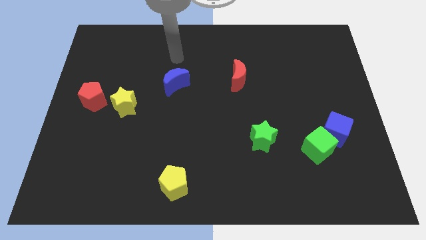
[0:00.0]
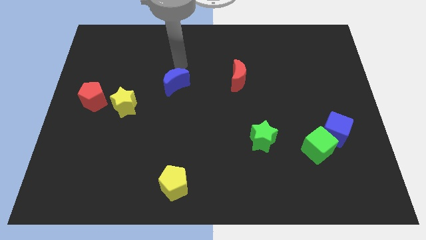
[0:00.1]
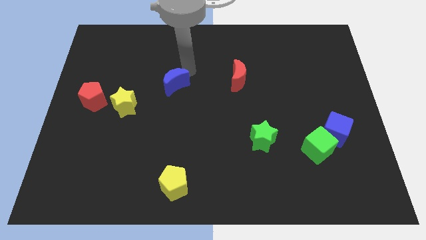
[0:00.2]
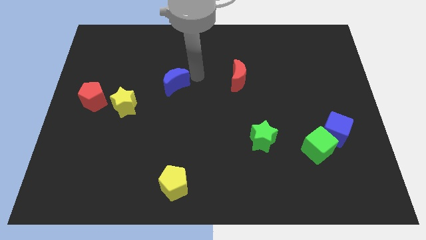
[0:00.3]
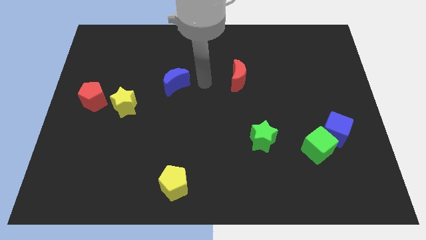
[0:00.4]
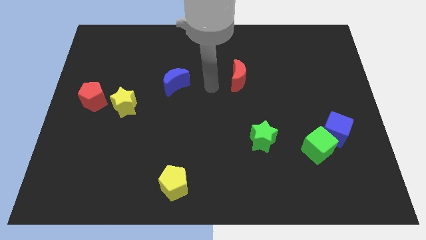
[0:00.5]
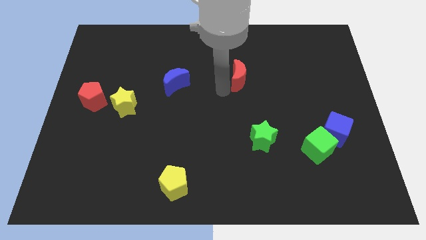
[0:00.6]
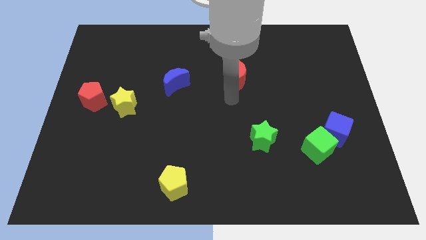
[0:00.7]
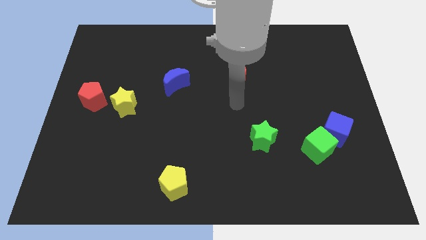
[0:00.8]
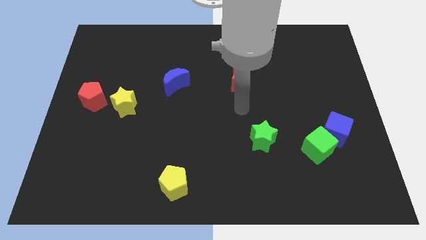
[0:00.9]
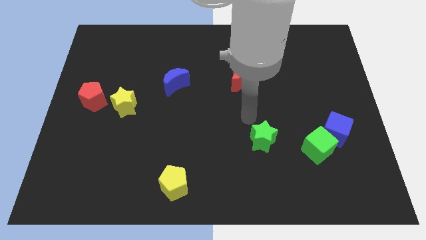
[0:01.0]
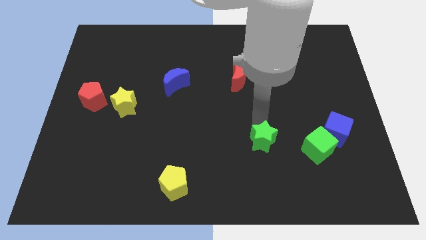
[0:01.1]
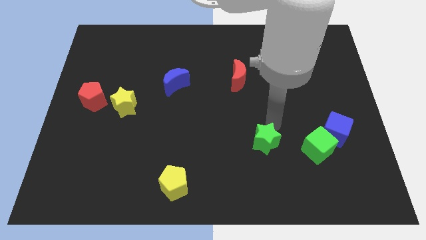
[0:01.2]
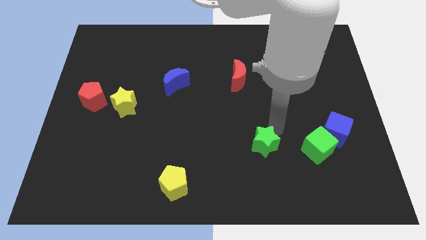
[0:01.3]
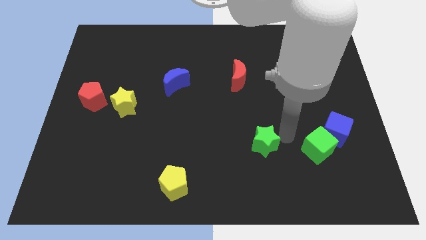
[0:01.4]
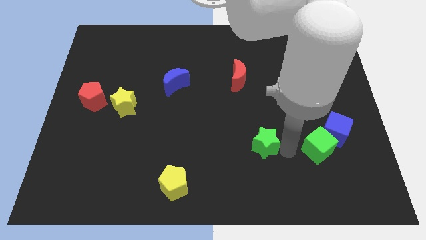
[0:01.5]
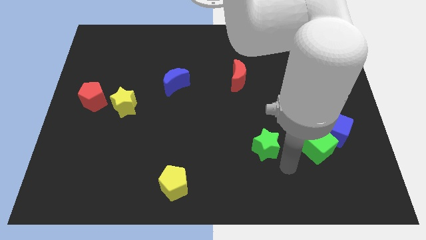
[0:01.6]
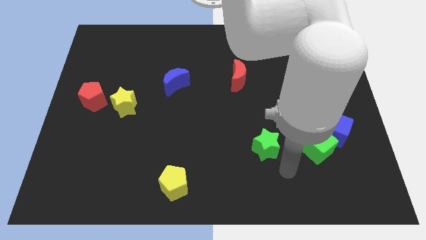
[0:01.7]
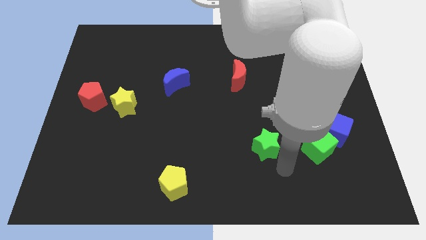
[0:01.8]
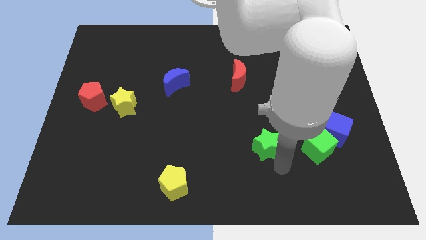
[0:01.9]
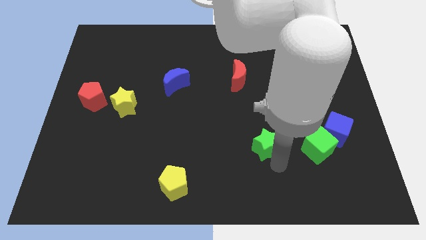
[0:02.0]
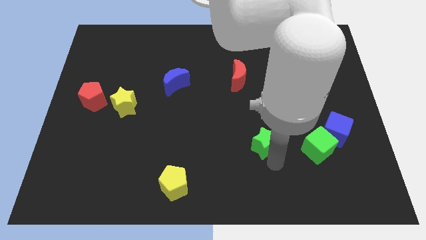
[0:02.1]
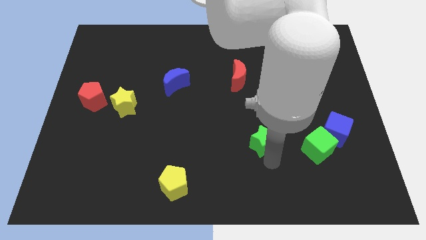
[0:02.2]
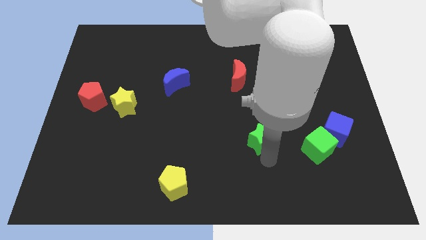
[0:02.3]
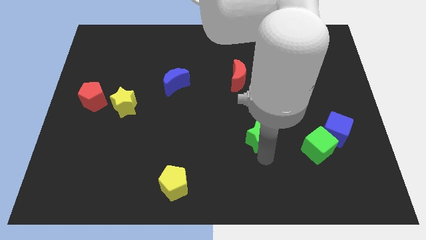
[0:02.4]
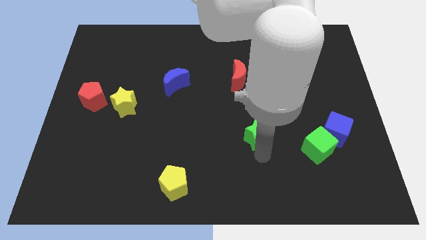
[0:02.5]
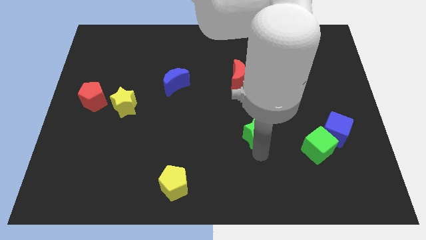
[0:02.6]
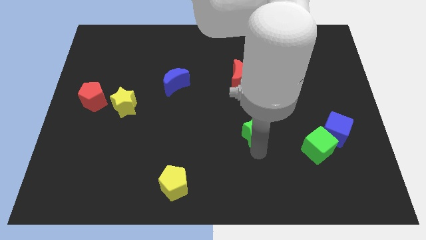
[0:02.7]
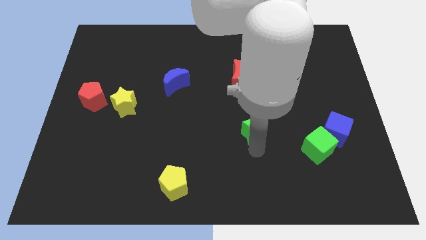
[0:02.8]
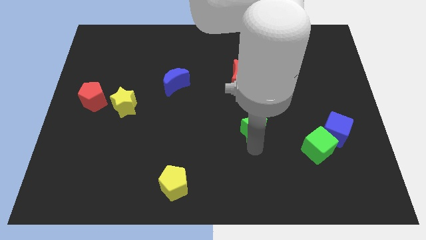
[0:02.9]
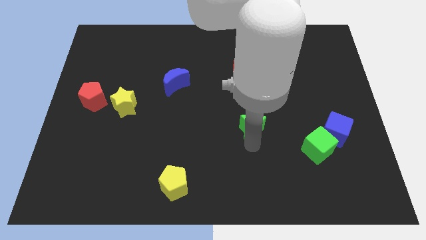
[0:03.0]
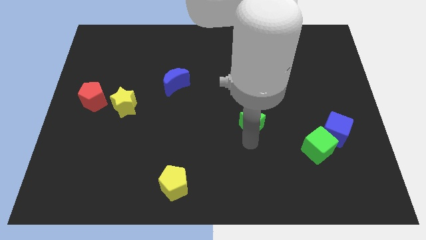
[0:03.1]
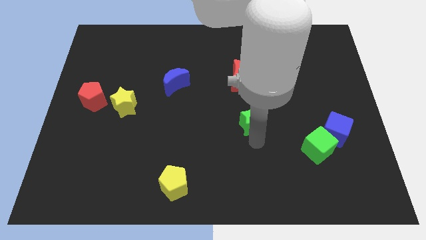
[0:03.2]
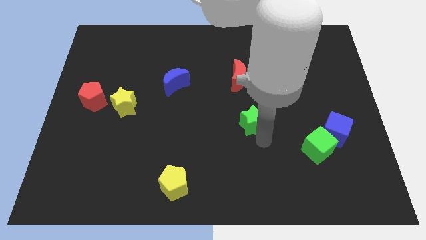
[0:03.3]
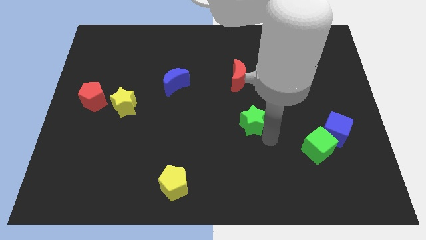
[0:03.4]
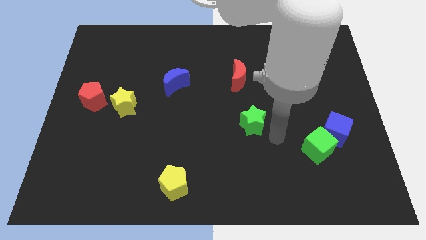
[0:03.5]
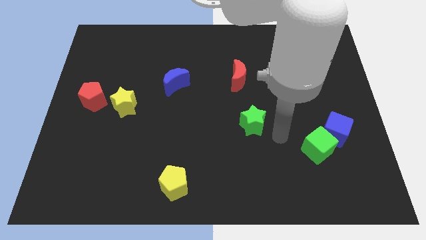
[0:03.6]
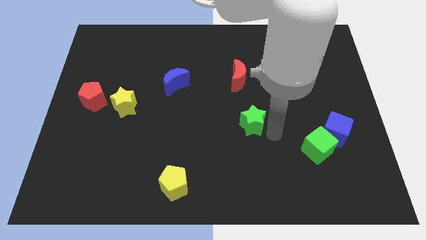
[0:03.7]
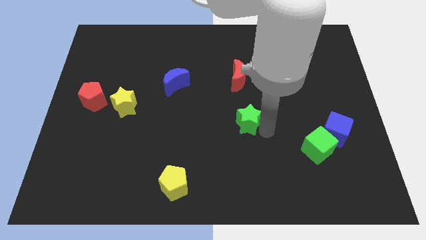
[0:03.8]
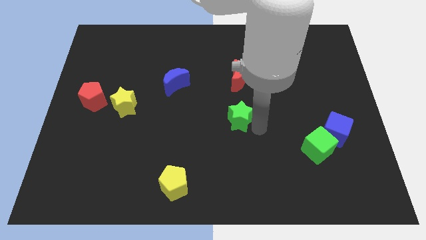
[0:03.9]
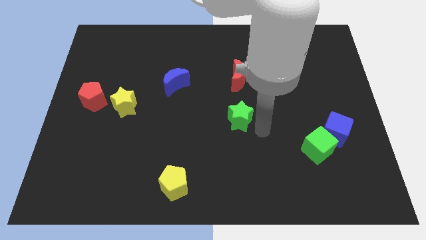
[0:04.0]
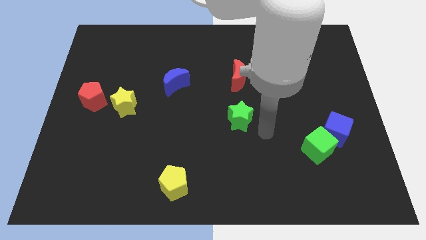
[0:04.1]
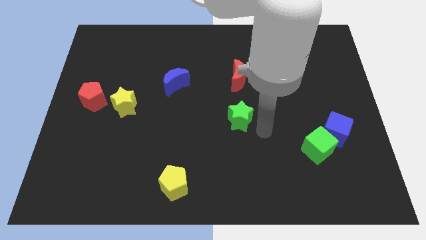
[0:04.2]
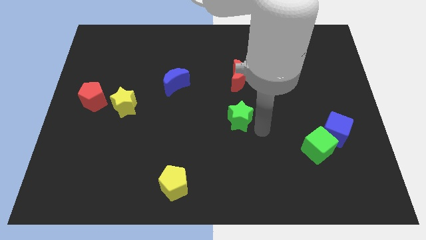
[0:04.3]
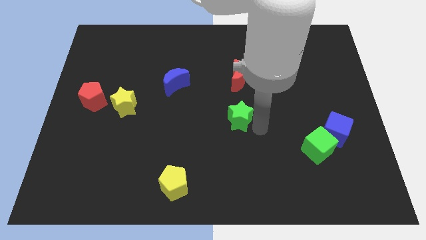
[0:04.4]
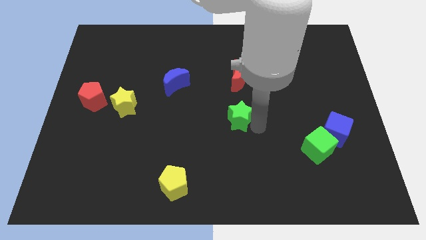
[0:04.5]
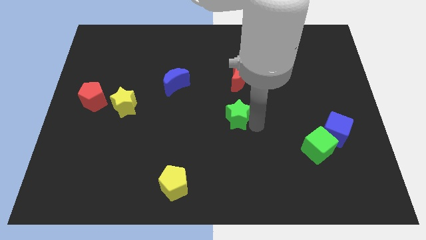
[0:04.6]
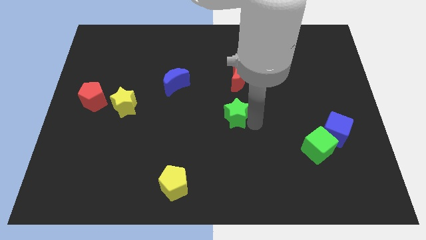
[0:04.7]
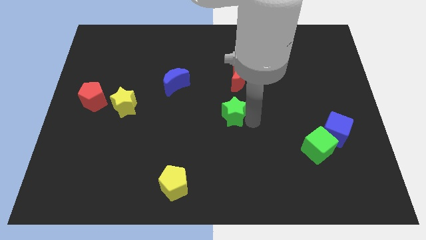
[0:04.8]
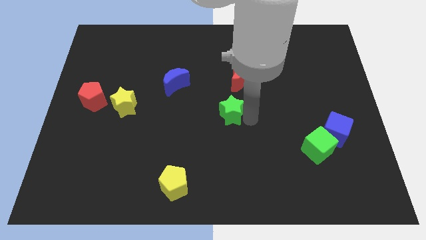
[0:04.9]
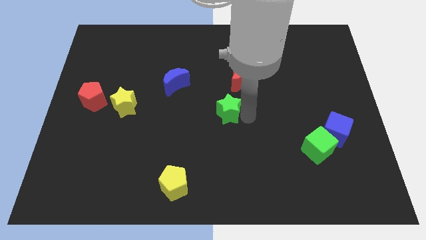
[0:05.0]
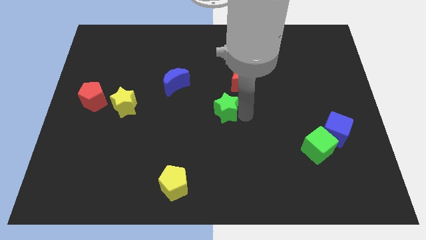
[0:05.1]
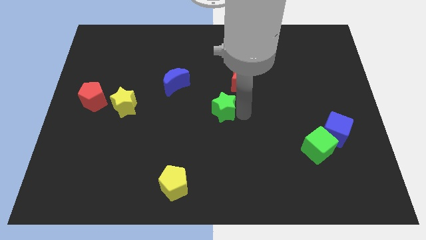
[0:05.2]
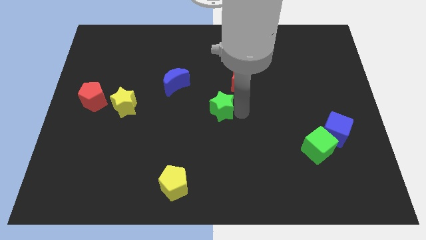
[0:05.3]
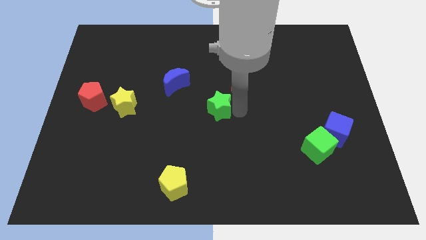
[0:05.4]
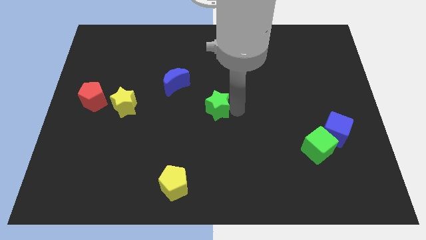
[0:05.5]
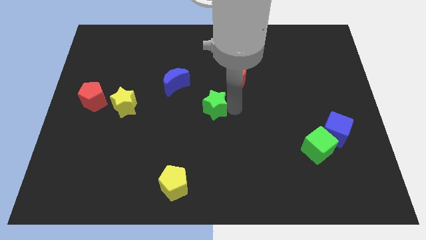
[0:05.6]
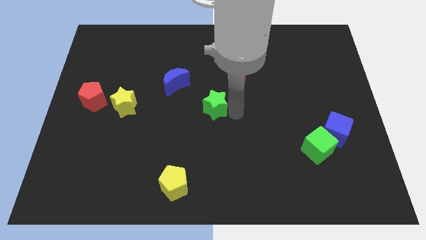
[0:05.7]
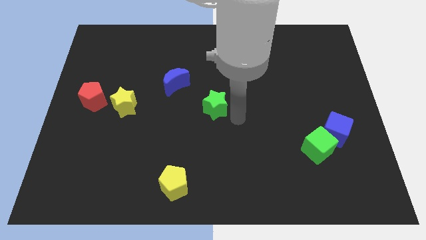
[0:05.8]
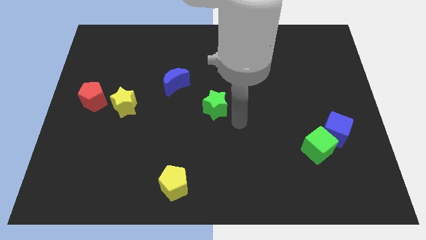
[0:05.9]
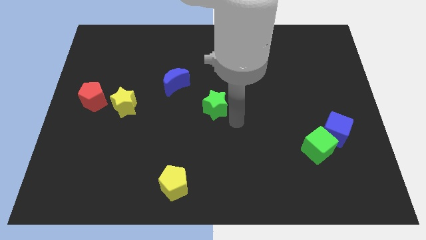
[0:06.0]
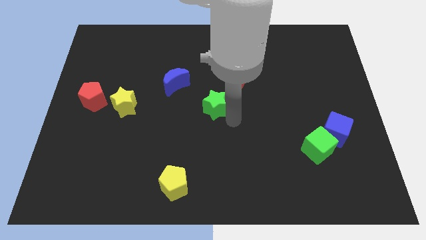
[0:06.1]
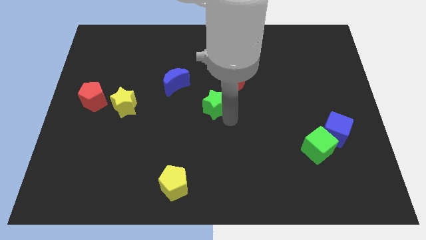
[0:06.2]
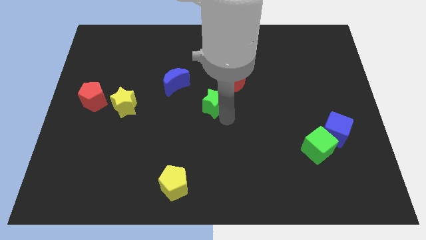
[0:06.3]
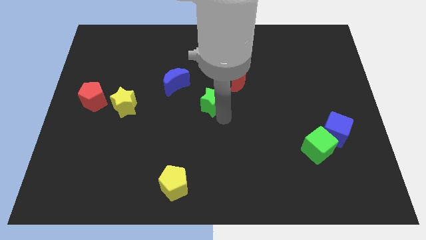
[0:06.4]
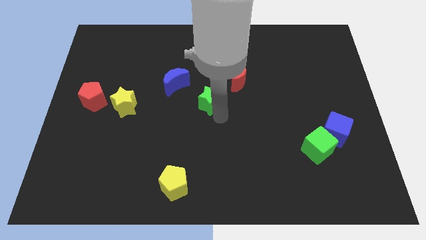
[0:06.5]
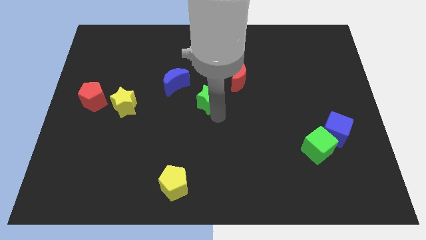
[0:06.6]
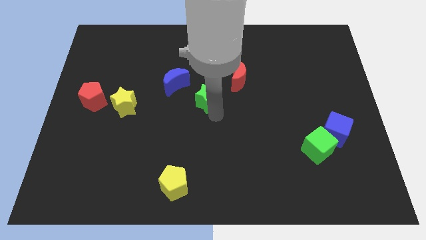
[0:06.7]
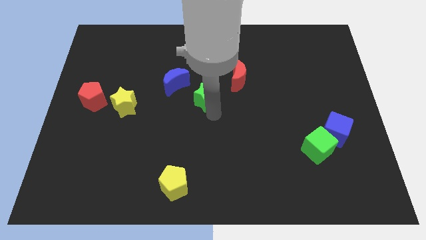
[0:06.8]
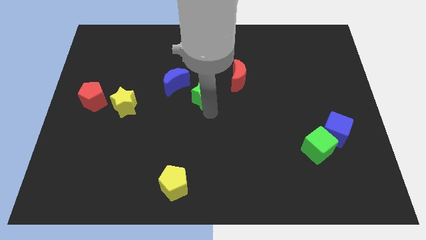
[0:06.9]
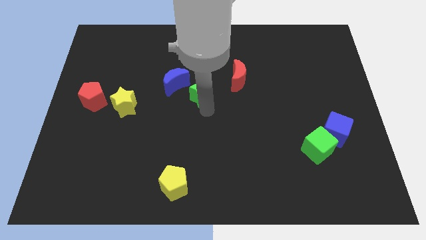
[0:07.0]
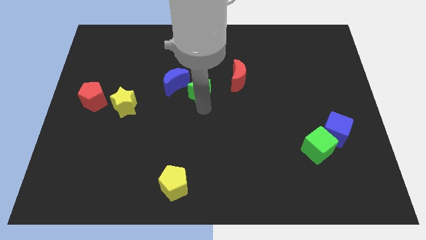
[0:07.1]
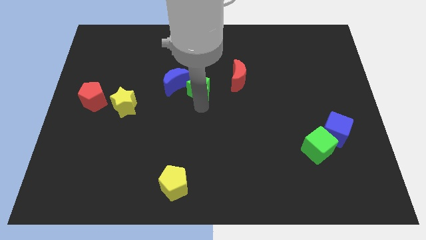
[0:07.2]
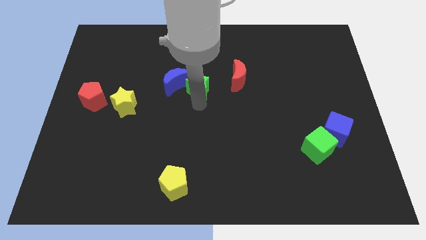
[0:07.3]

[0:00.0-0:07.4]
put the green star to the blue moon
